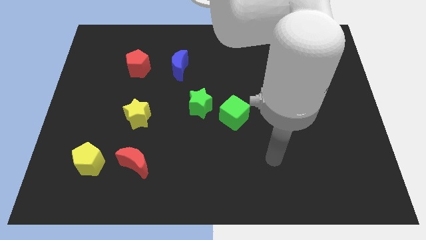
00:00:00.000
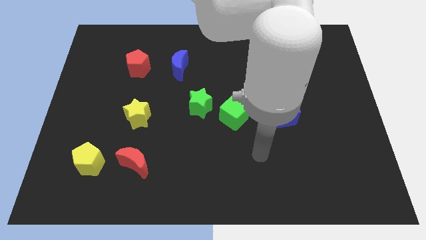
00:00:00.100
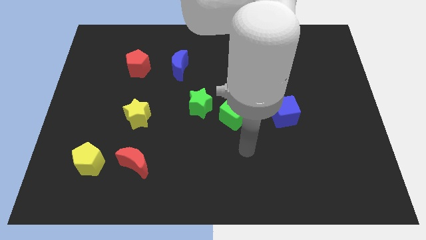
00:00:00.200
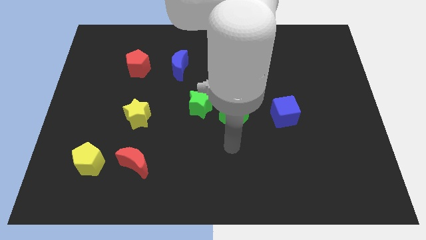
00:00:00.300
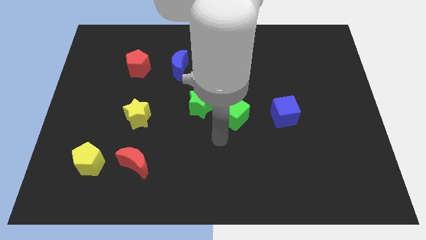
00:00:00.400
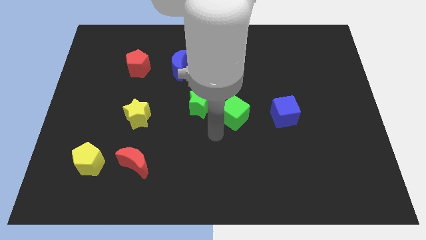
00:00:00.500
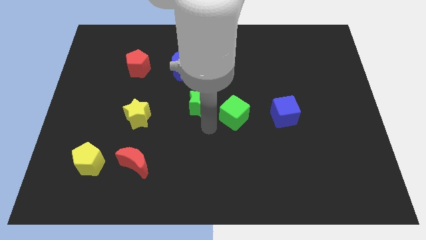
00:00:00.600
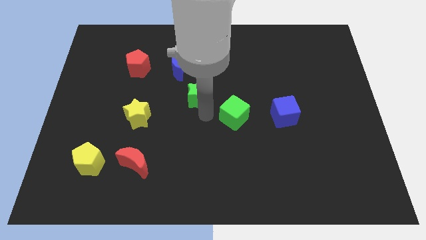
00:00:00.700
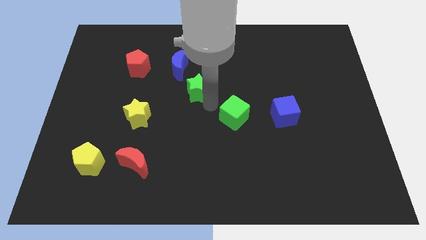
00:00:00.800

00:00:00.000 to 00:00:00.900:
move the green cube away from the green star

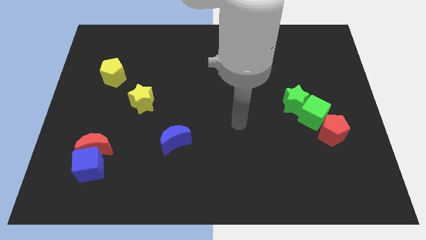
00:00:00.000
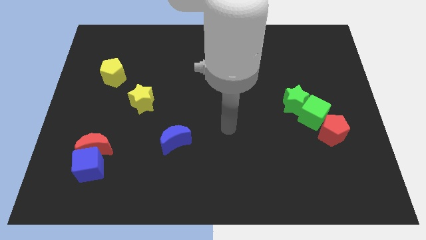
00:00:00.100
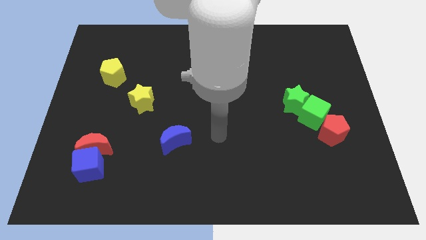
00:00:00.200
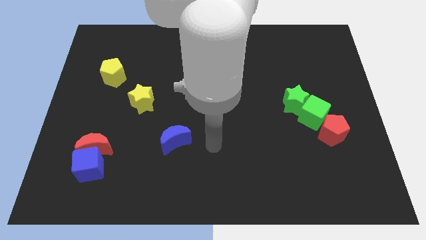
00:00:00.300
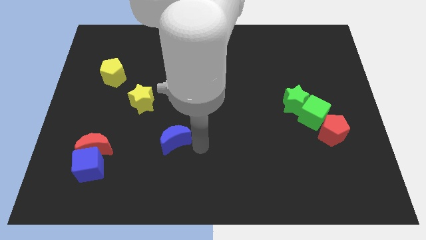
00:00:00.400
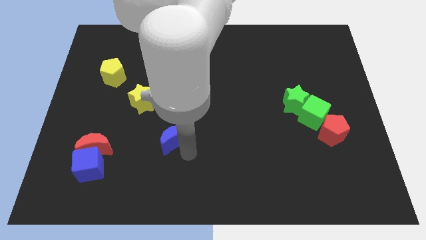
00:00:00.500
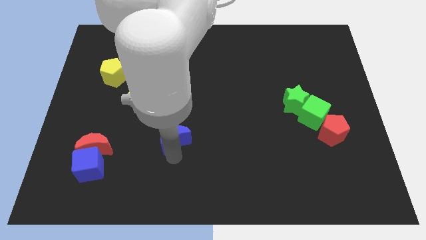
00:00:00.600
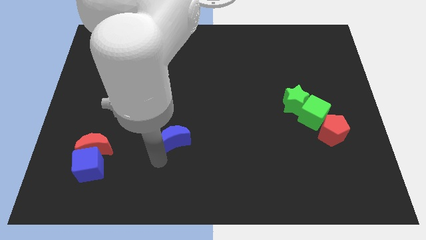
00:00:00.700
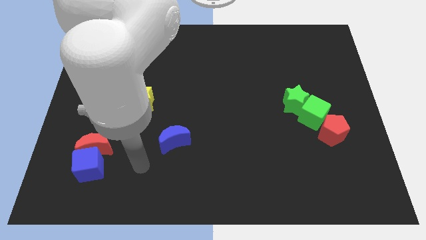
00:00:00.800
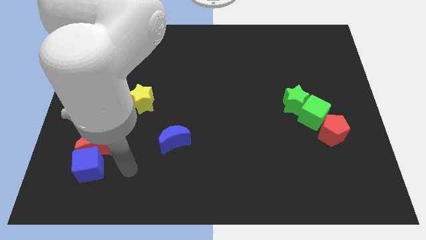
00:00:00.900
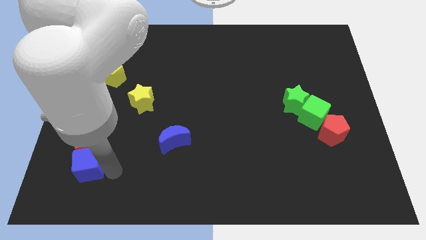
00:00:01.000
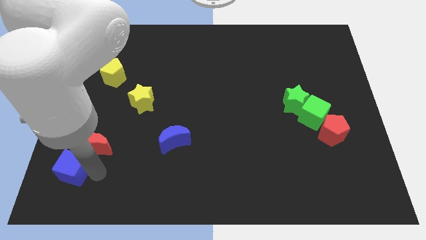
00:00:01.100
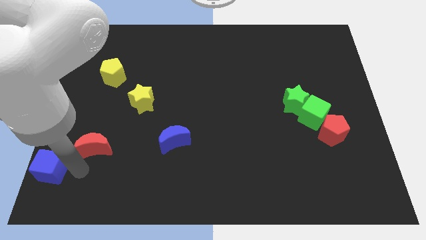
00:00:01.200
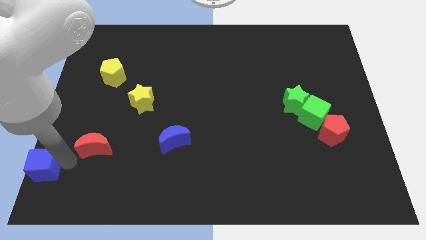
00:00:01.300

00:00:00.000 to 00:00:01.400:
move the red moon away from the blue cube

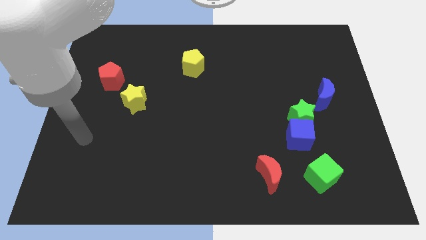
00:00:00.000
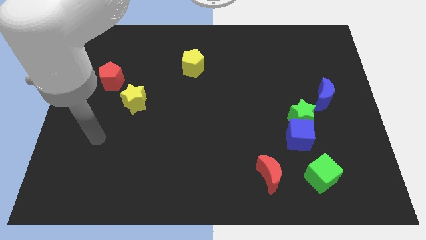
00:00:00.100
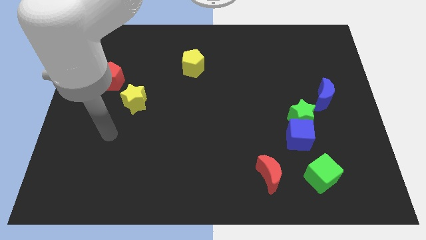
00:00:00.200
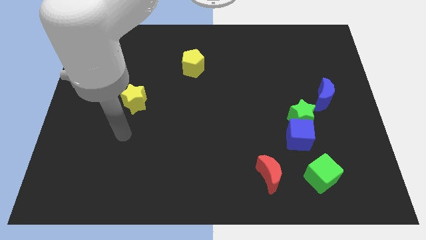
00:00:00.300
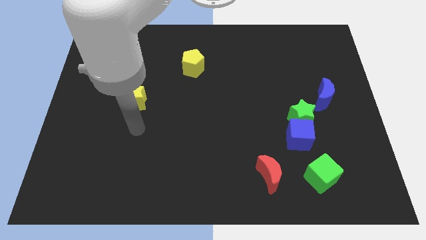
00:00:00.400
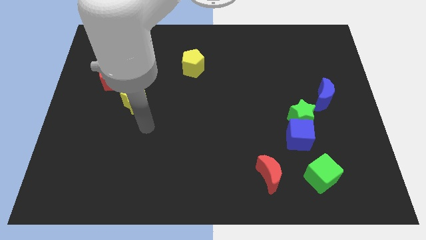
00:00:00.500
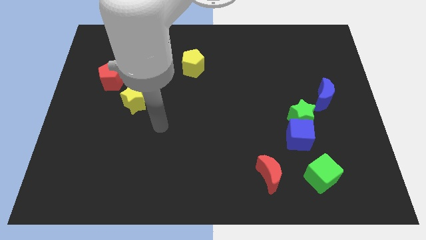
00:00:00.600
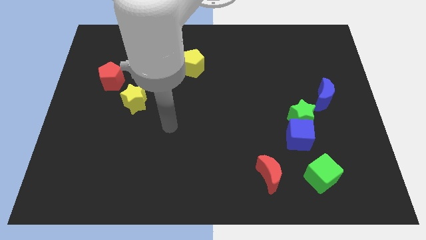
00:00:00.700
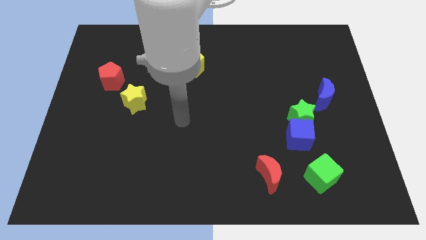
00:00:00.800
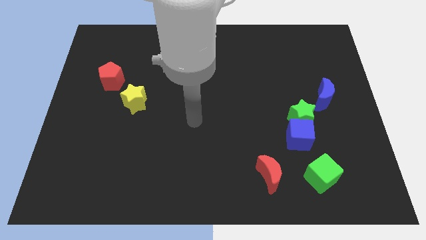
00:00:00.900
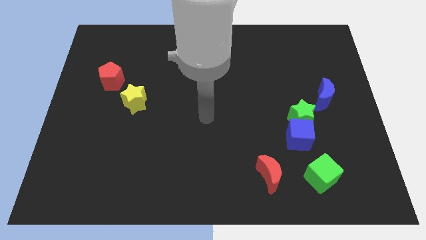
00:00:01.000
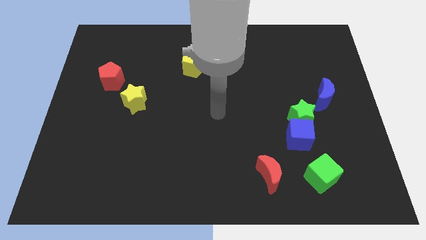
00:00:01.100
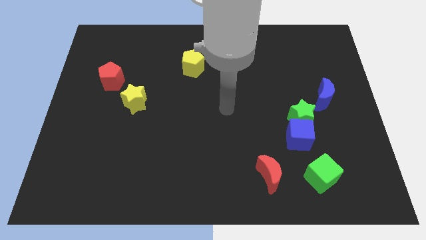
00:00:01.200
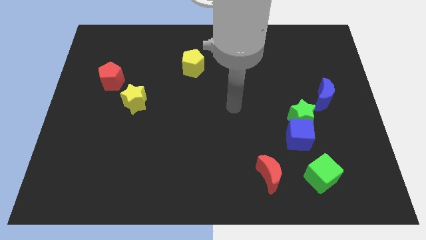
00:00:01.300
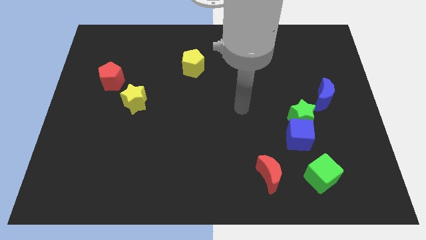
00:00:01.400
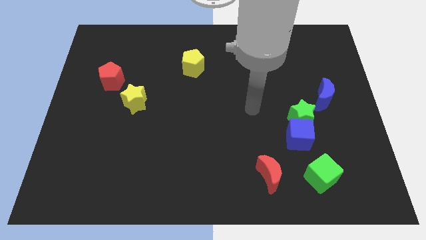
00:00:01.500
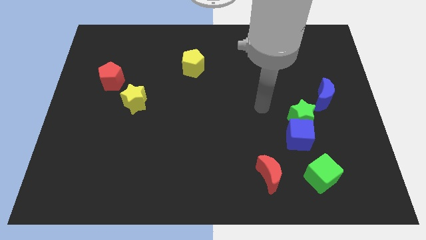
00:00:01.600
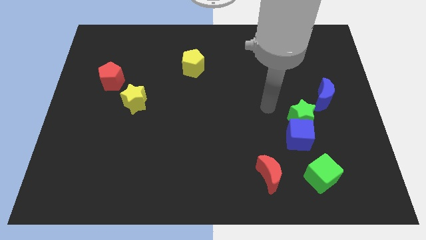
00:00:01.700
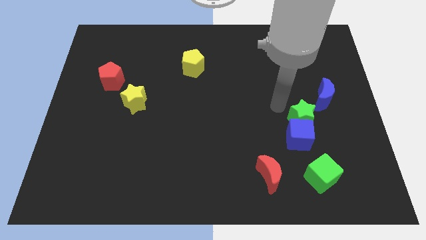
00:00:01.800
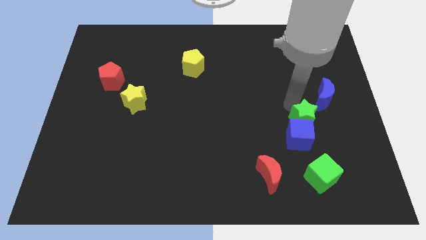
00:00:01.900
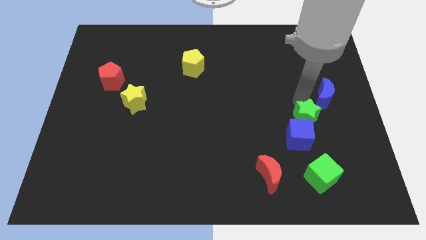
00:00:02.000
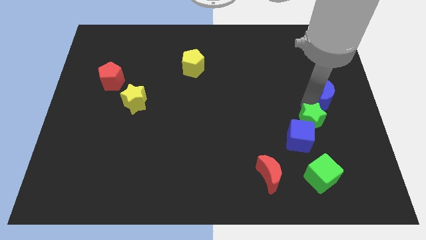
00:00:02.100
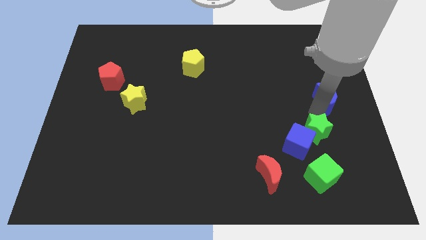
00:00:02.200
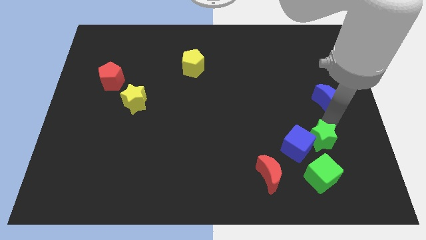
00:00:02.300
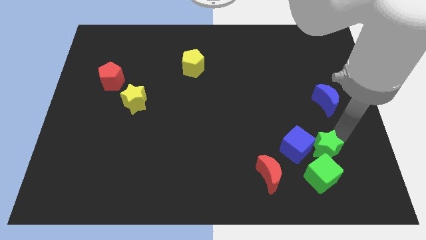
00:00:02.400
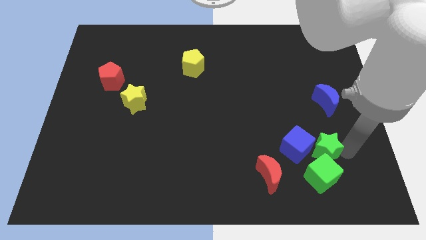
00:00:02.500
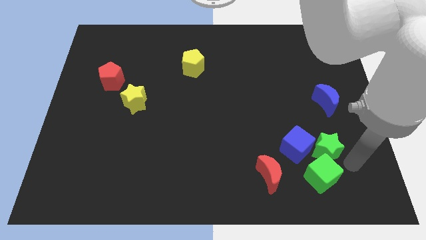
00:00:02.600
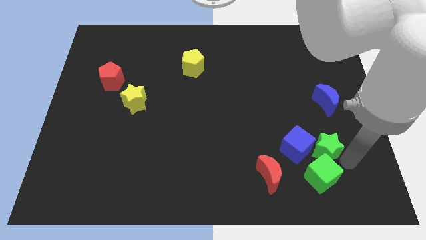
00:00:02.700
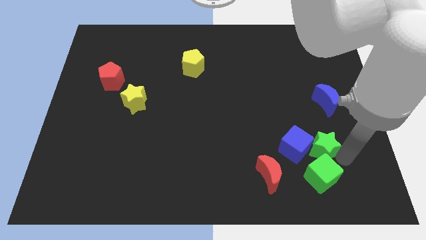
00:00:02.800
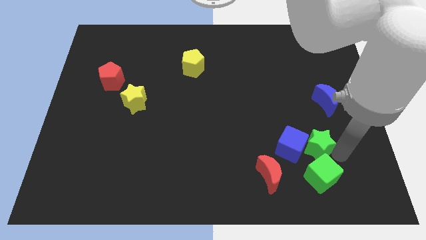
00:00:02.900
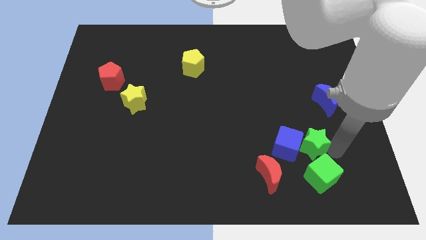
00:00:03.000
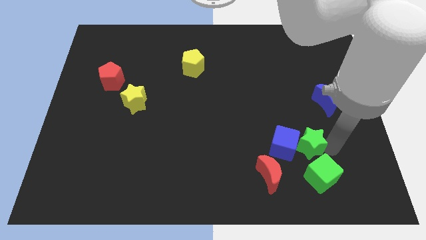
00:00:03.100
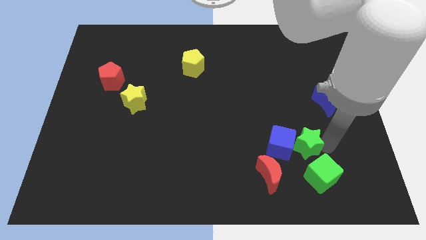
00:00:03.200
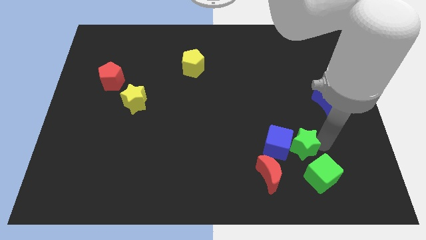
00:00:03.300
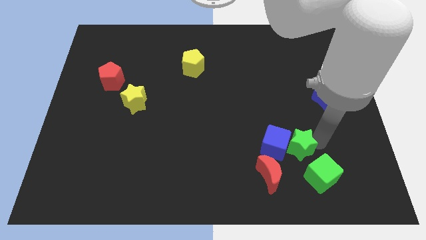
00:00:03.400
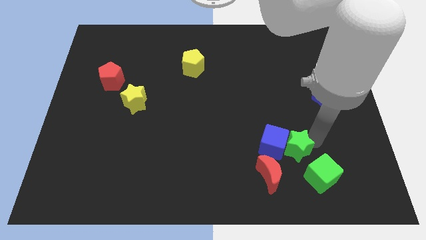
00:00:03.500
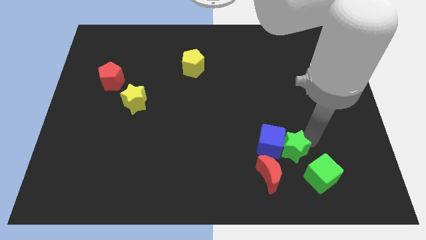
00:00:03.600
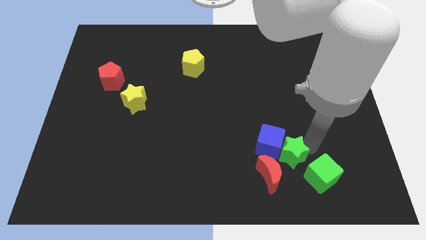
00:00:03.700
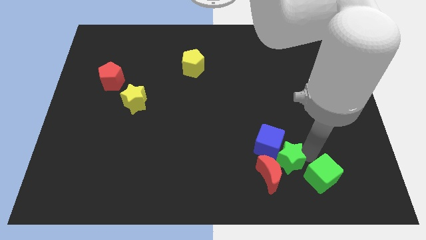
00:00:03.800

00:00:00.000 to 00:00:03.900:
separate the green star from the blue cube and blue moon

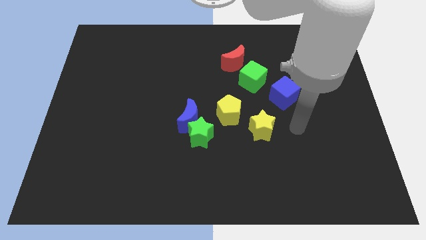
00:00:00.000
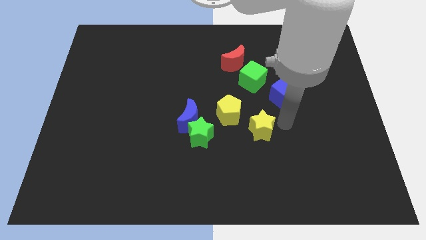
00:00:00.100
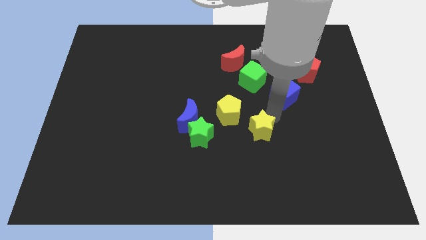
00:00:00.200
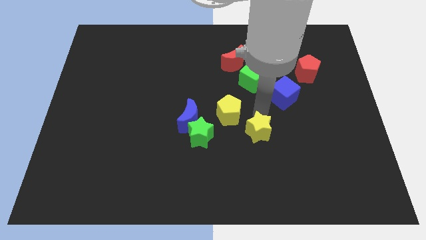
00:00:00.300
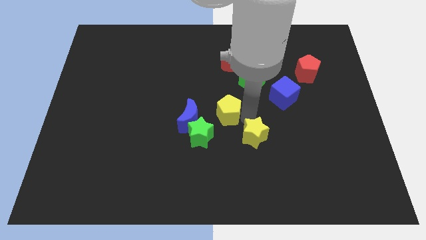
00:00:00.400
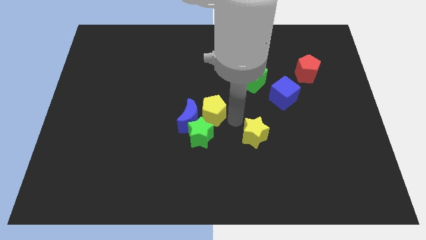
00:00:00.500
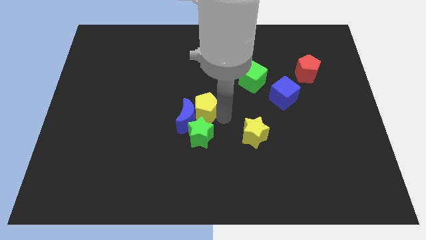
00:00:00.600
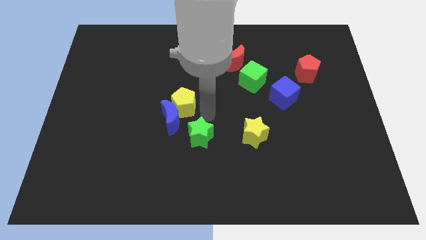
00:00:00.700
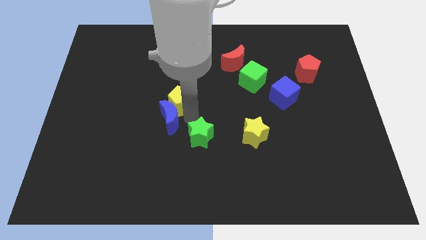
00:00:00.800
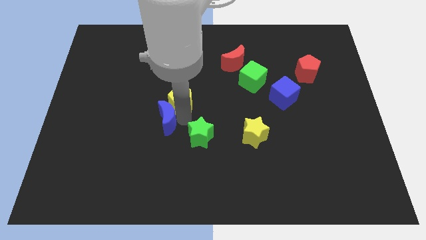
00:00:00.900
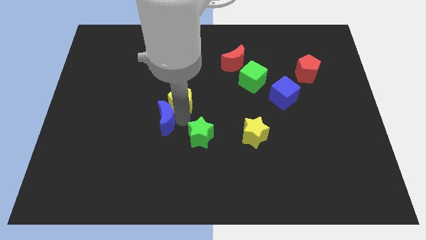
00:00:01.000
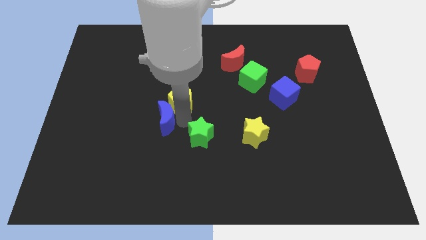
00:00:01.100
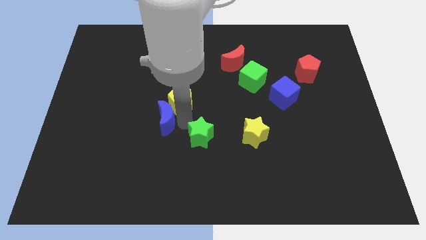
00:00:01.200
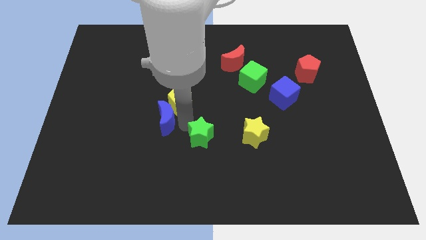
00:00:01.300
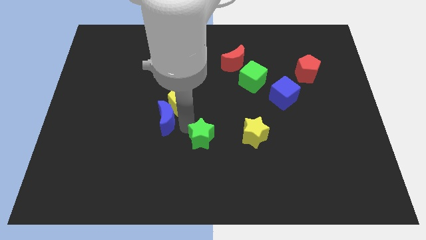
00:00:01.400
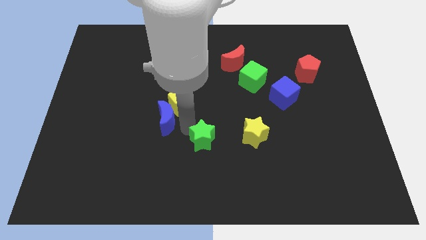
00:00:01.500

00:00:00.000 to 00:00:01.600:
pull the green star apart from the blue moon and yellow pentagon

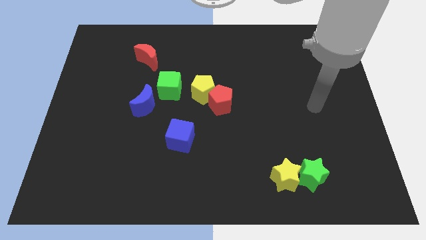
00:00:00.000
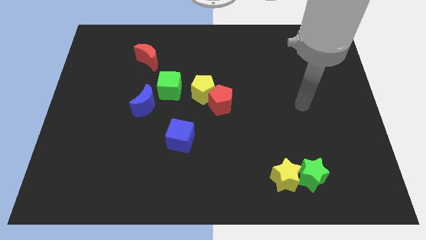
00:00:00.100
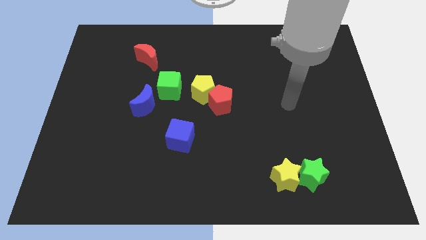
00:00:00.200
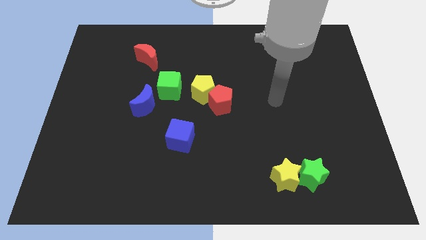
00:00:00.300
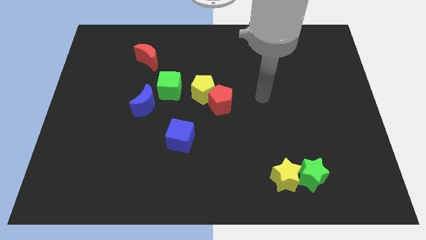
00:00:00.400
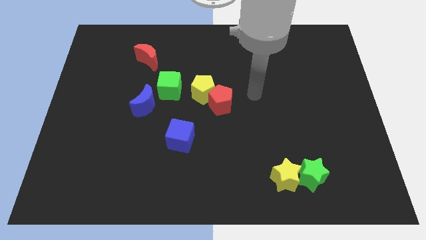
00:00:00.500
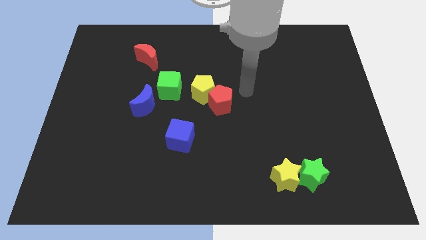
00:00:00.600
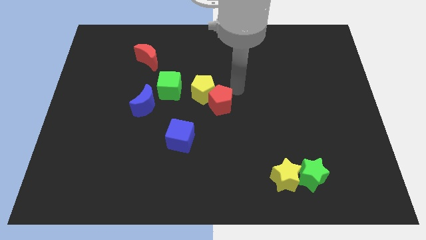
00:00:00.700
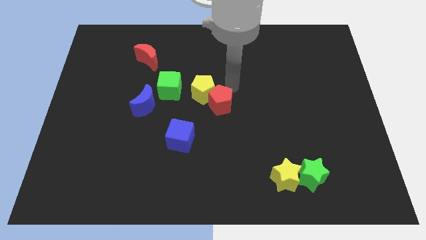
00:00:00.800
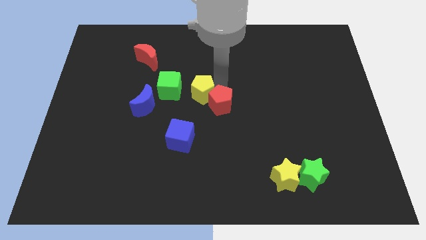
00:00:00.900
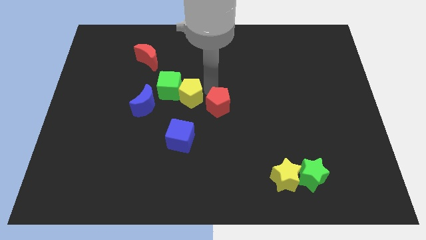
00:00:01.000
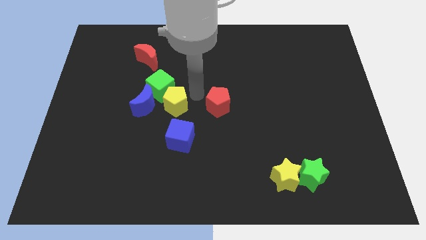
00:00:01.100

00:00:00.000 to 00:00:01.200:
separate the red pentagon from the yellow pentagon

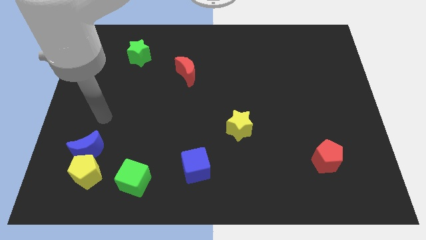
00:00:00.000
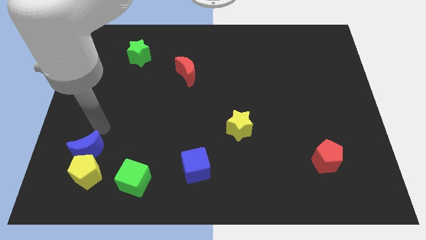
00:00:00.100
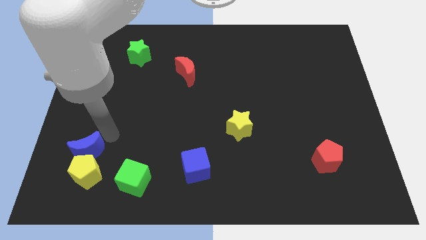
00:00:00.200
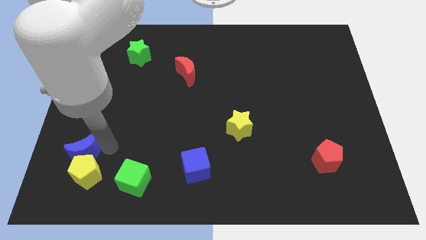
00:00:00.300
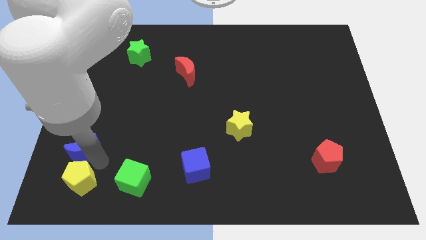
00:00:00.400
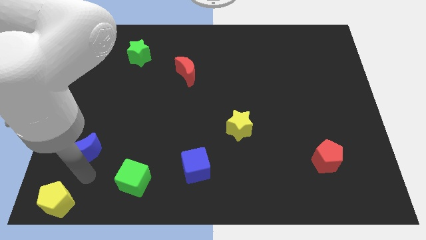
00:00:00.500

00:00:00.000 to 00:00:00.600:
pull the blue moon apart from the yellow pentagon
